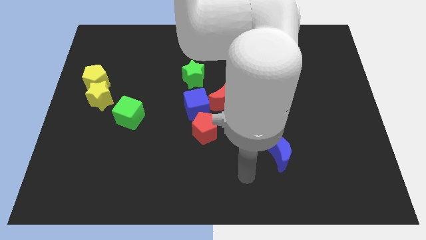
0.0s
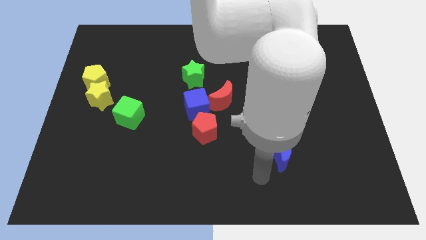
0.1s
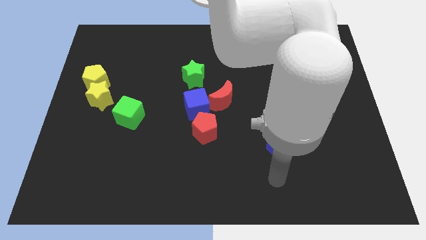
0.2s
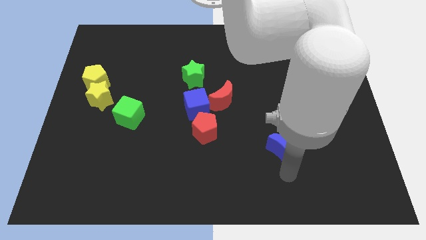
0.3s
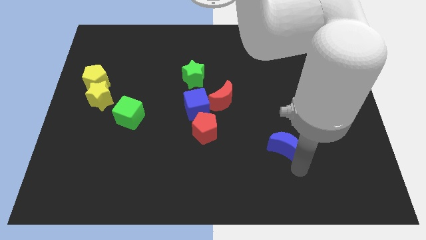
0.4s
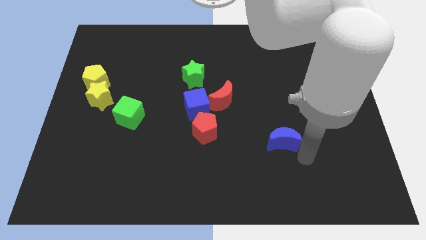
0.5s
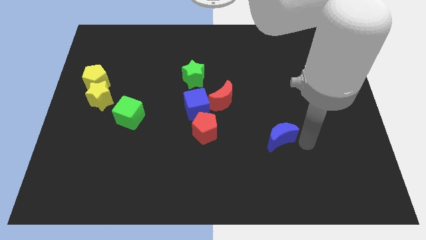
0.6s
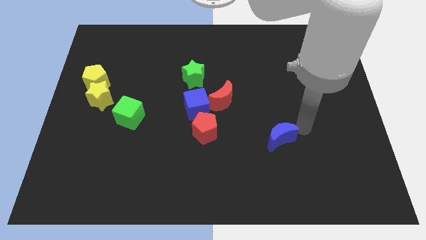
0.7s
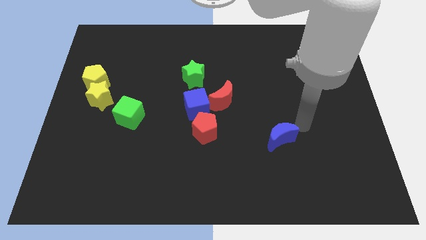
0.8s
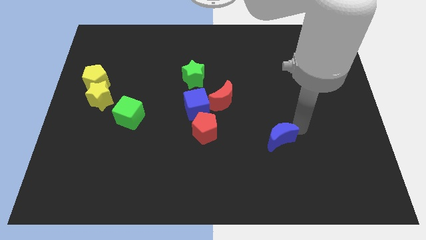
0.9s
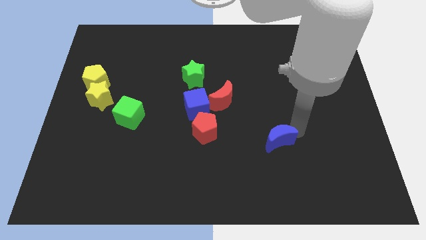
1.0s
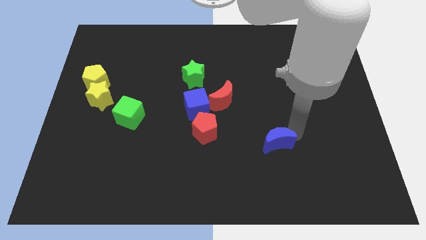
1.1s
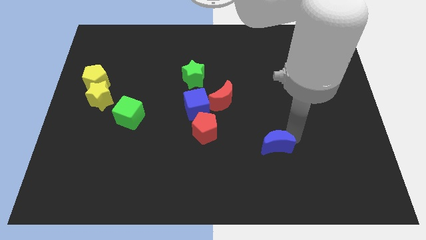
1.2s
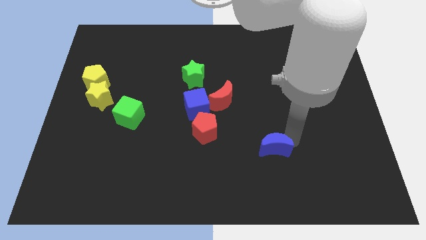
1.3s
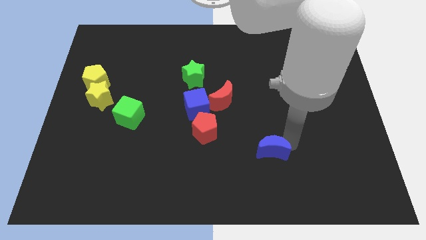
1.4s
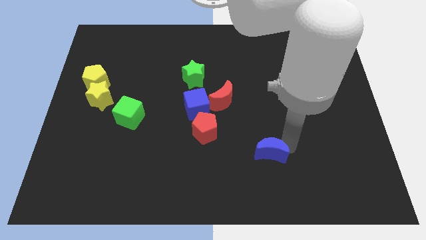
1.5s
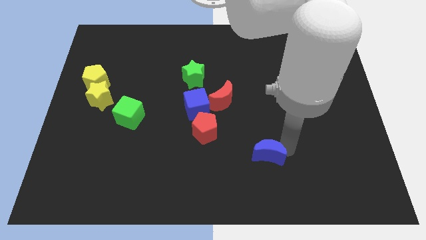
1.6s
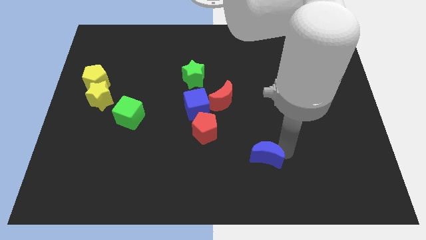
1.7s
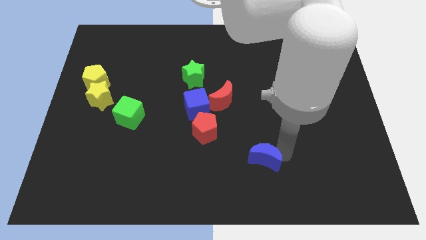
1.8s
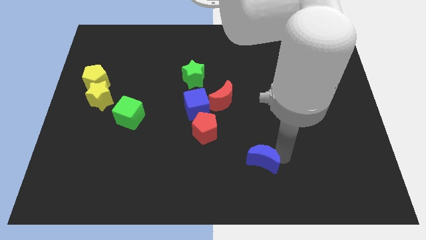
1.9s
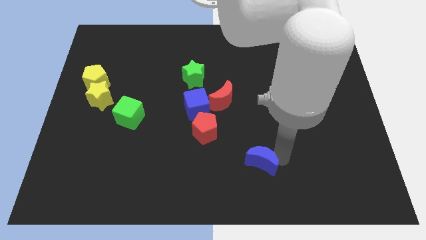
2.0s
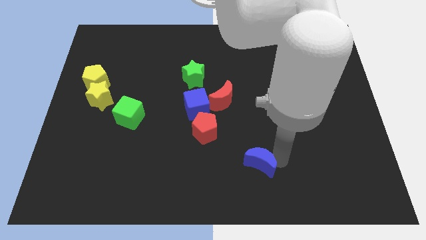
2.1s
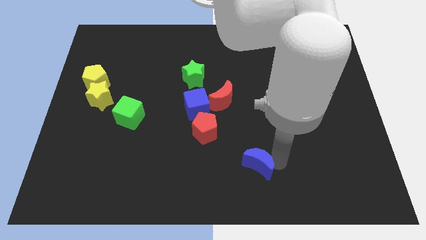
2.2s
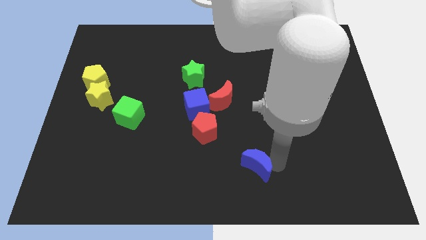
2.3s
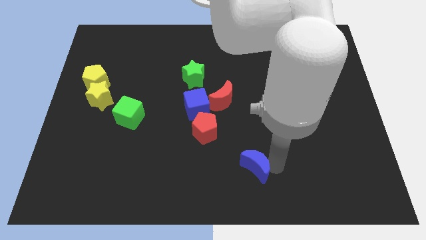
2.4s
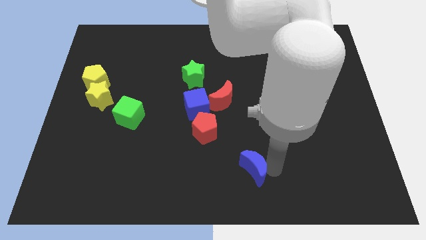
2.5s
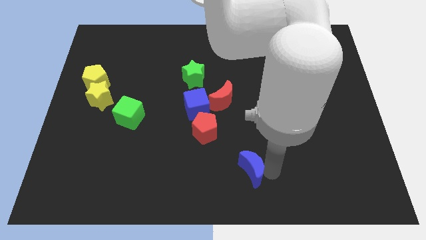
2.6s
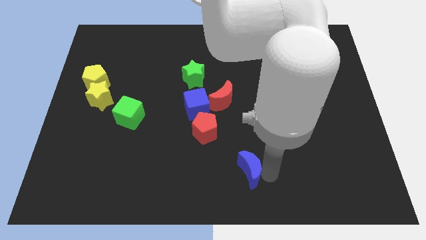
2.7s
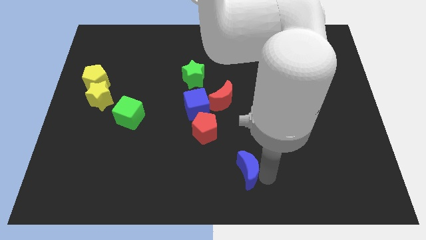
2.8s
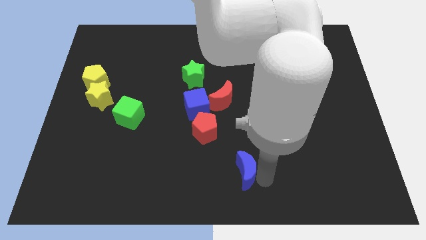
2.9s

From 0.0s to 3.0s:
slide the blue moon a little to the left

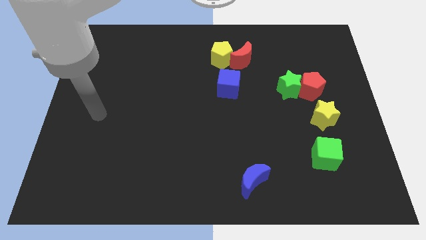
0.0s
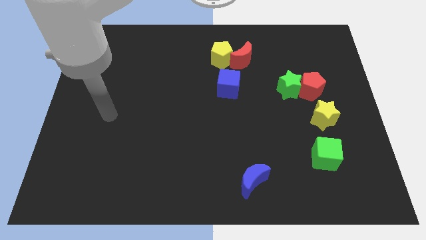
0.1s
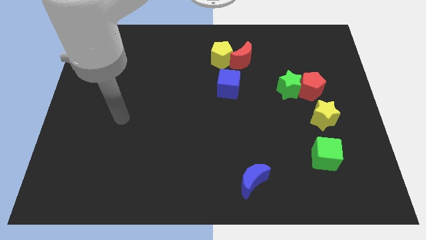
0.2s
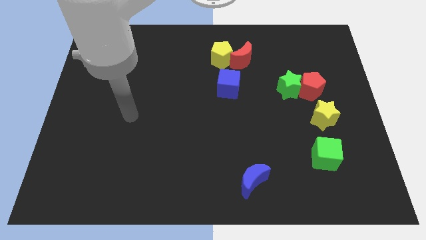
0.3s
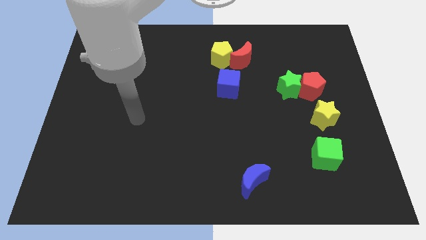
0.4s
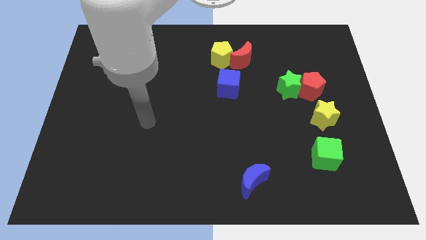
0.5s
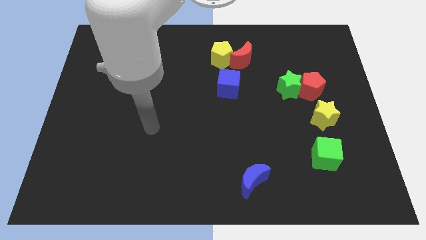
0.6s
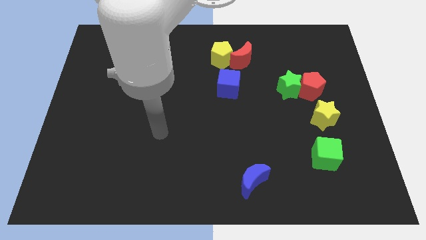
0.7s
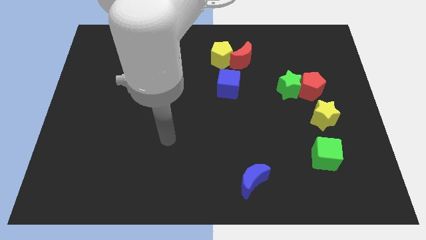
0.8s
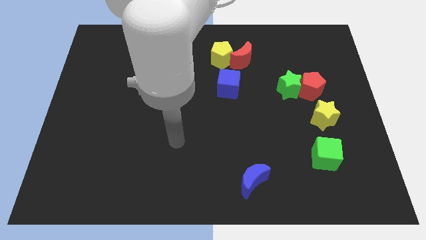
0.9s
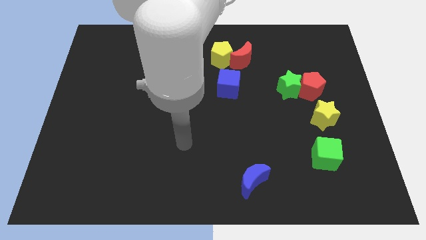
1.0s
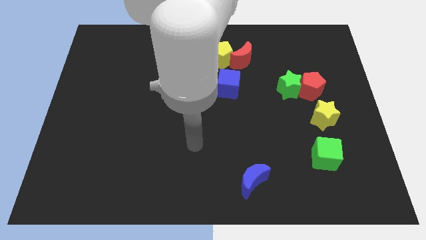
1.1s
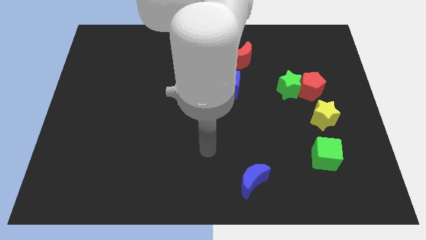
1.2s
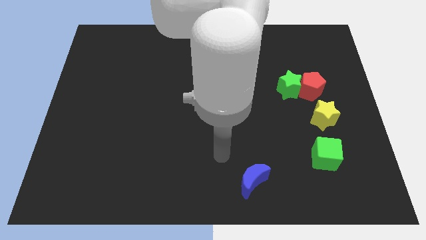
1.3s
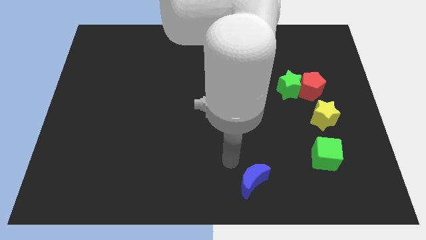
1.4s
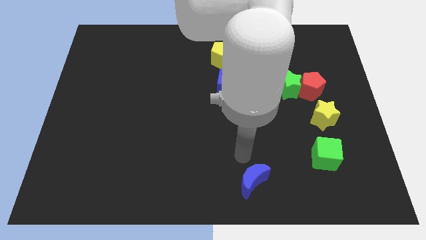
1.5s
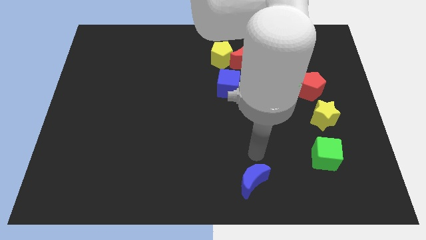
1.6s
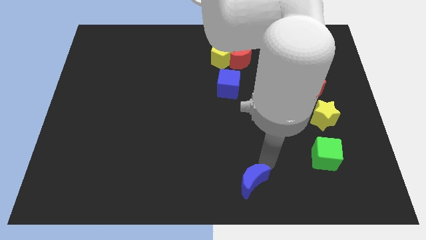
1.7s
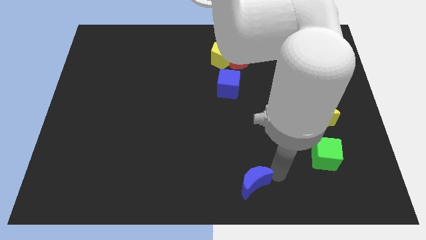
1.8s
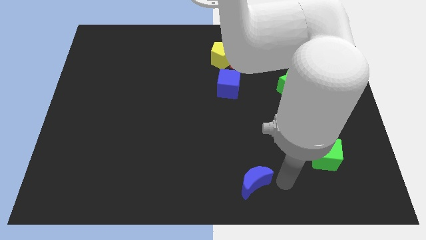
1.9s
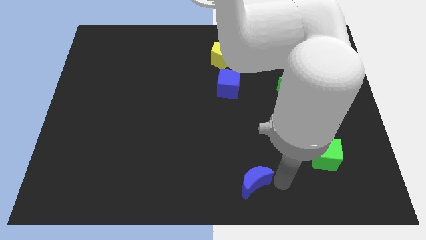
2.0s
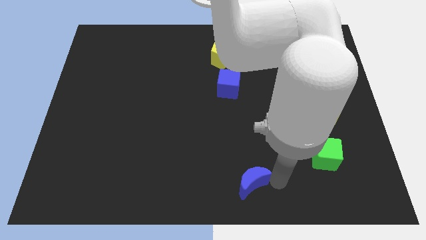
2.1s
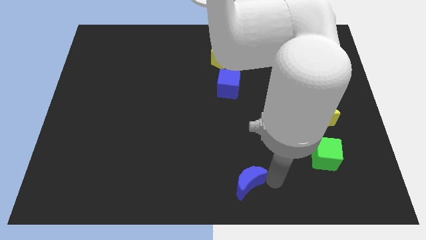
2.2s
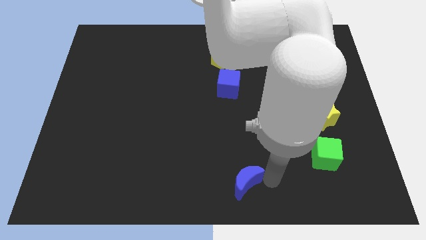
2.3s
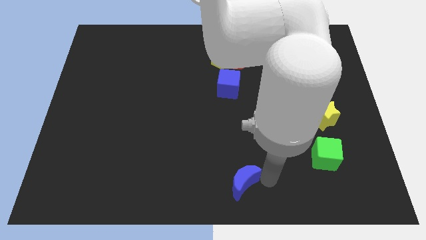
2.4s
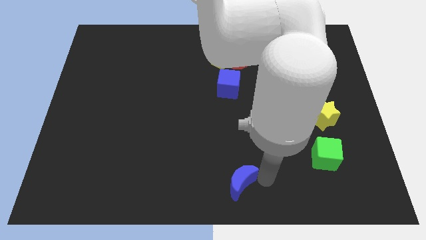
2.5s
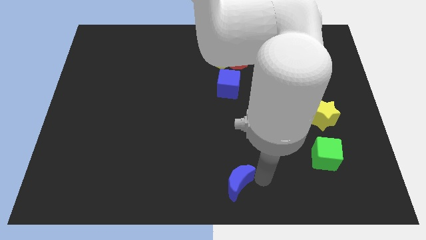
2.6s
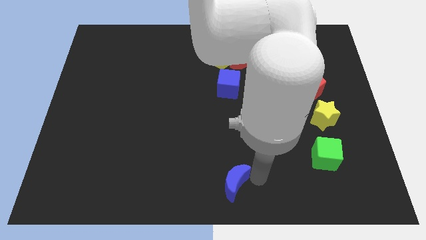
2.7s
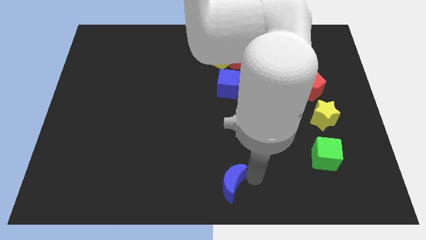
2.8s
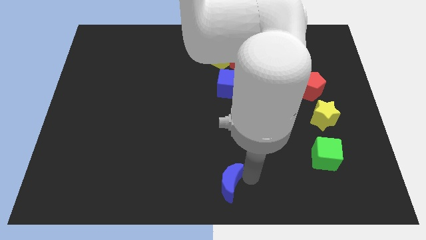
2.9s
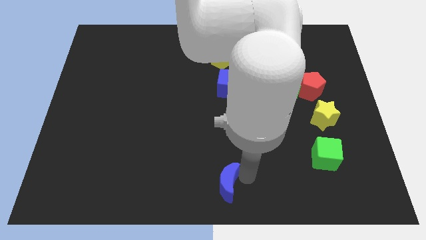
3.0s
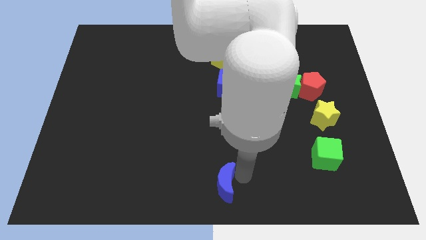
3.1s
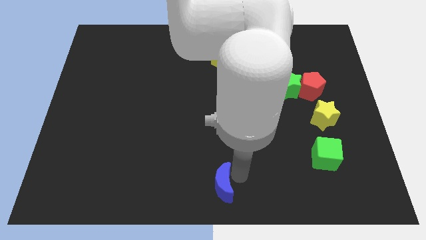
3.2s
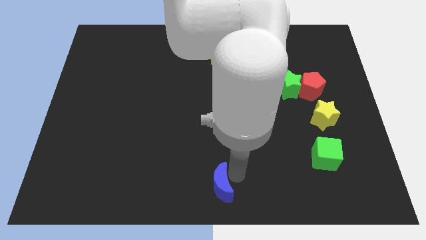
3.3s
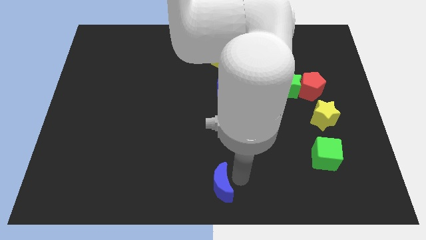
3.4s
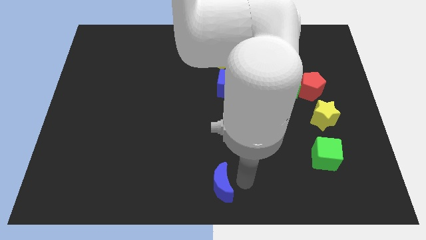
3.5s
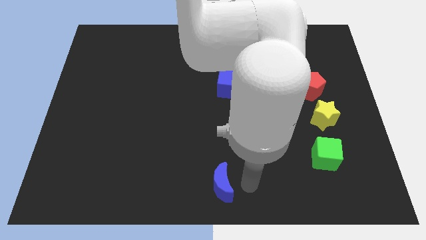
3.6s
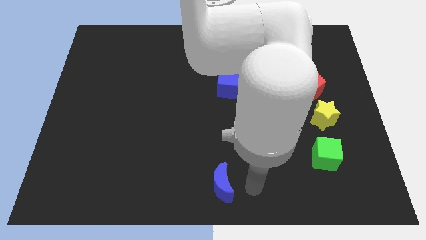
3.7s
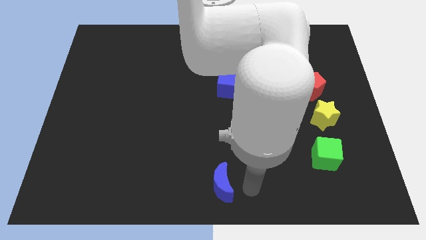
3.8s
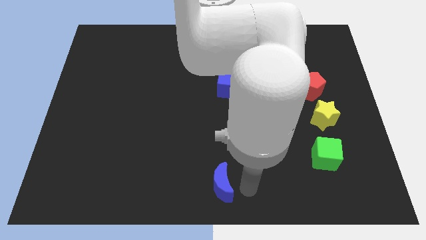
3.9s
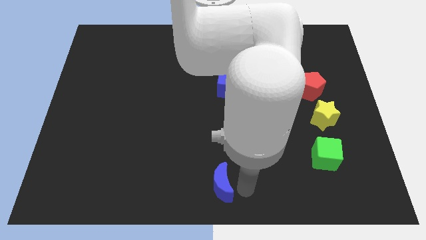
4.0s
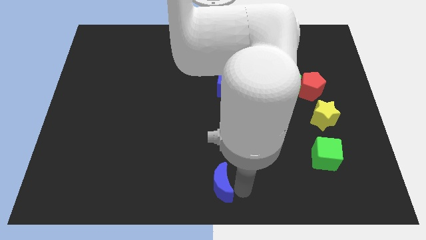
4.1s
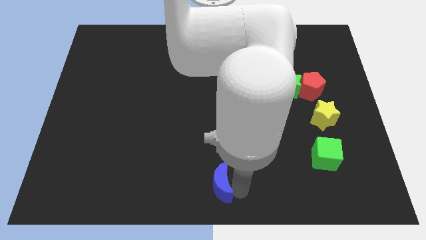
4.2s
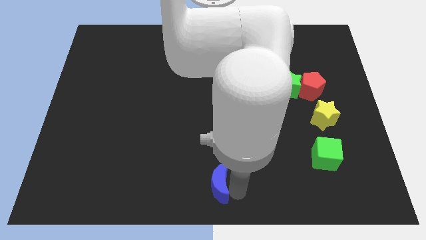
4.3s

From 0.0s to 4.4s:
slightly slide the blue moon to the left

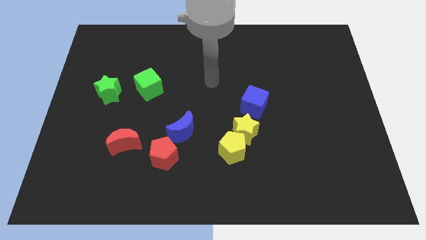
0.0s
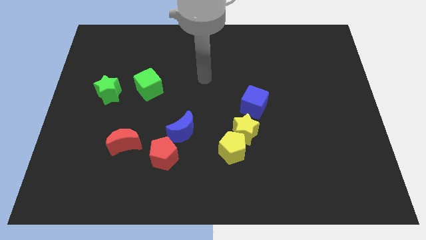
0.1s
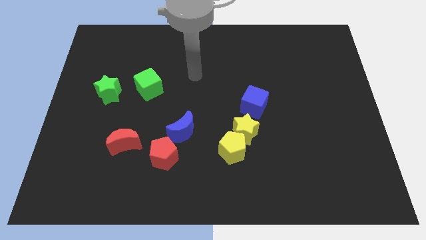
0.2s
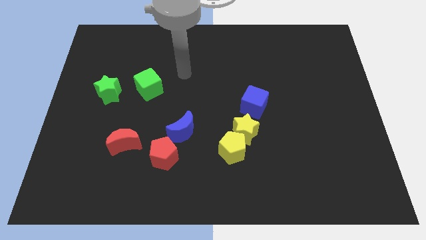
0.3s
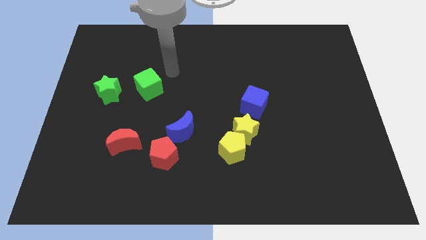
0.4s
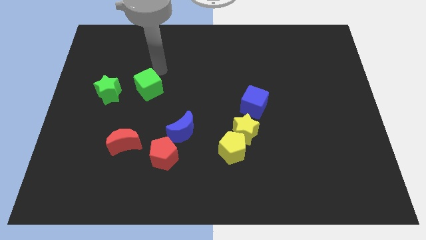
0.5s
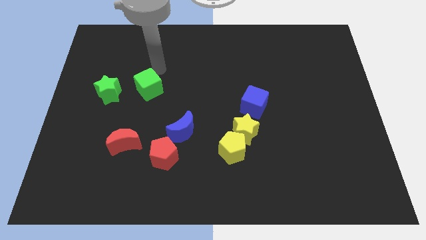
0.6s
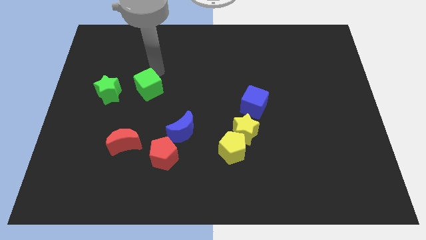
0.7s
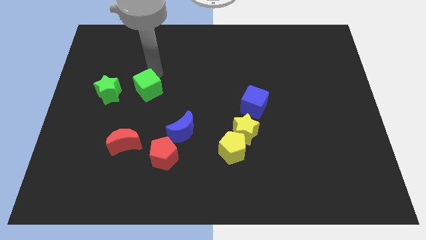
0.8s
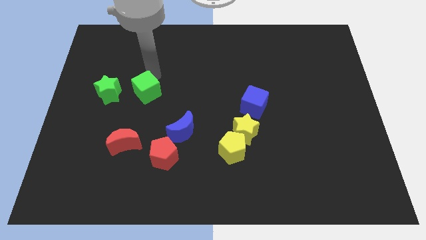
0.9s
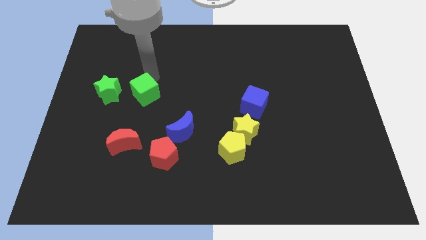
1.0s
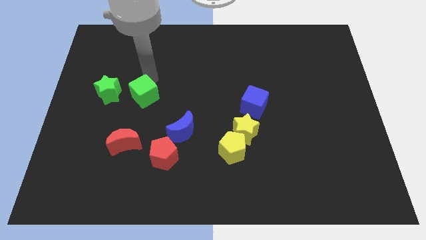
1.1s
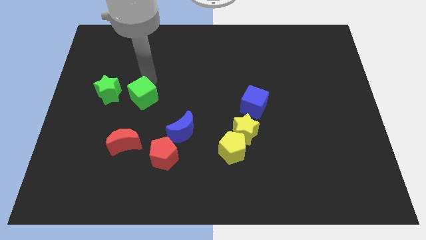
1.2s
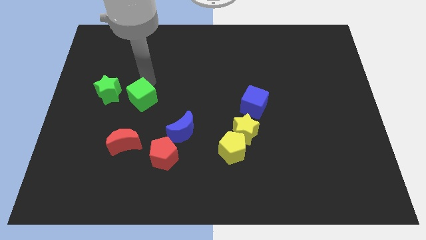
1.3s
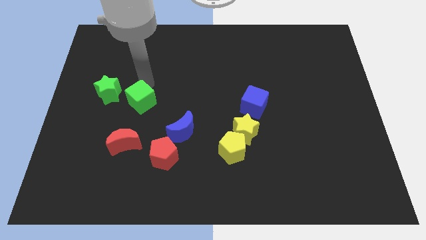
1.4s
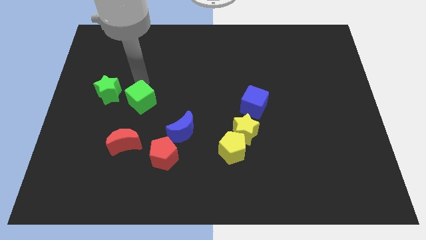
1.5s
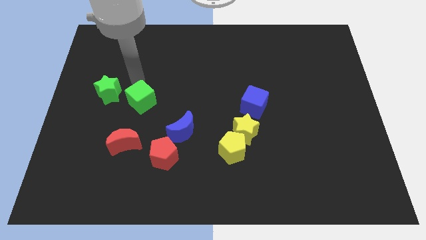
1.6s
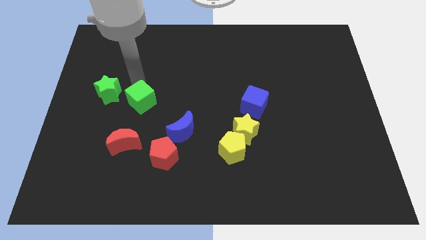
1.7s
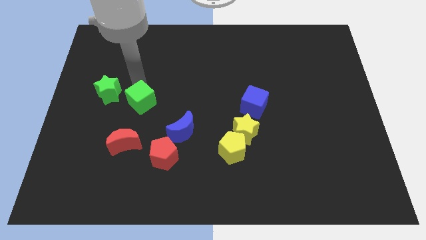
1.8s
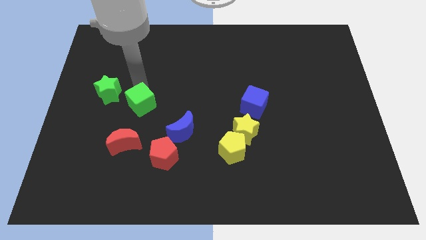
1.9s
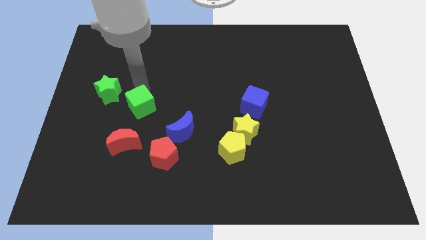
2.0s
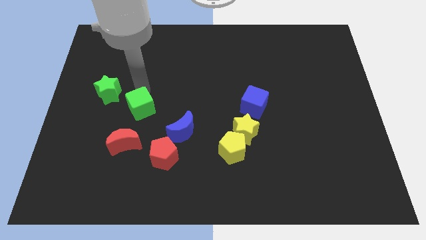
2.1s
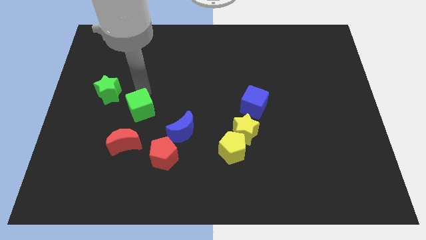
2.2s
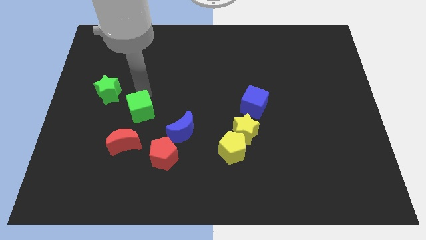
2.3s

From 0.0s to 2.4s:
move the green cube downwards a little
